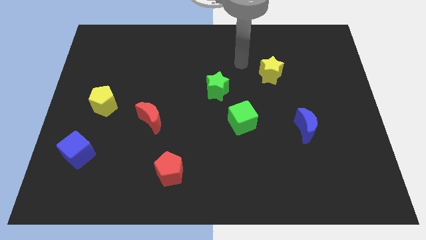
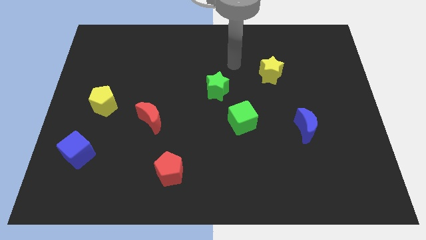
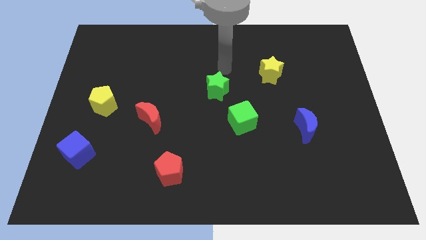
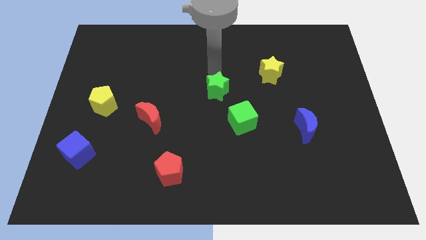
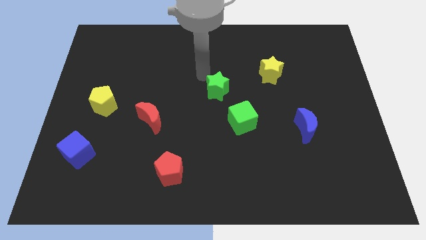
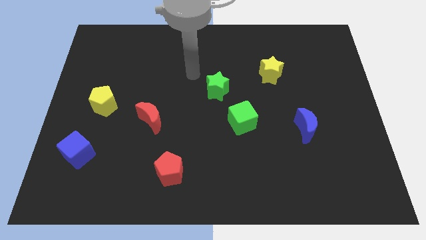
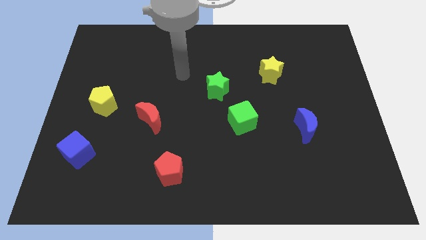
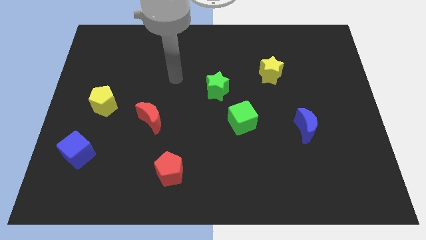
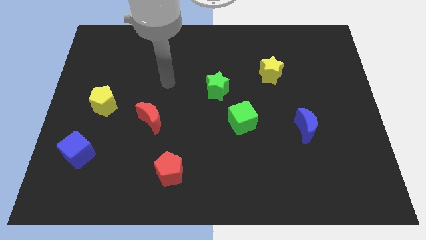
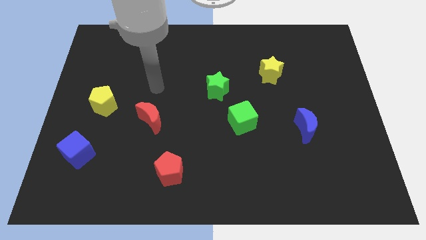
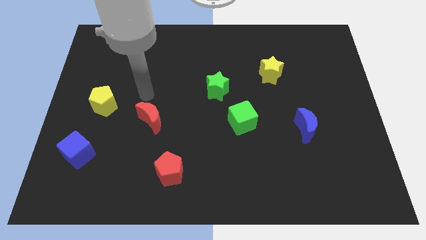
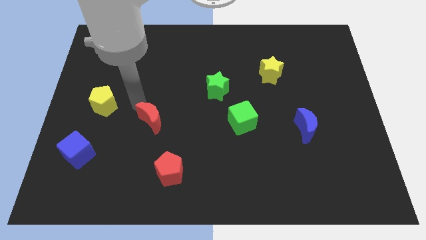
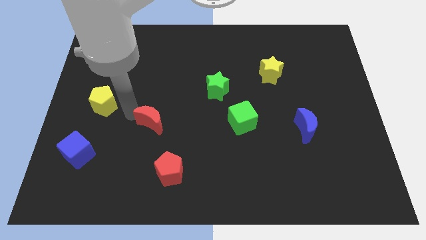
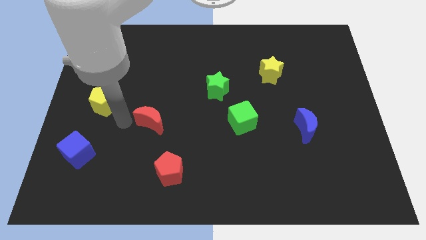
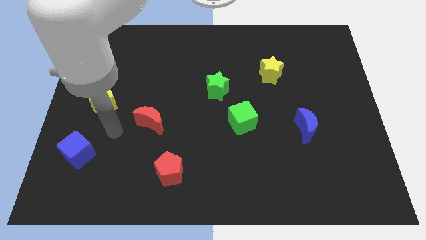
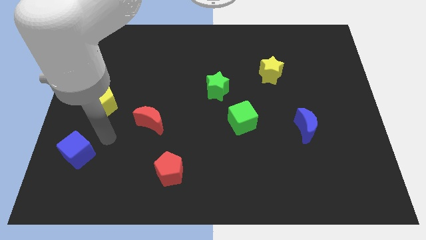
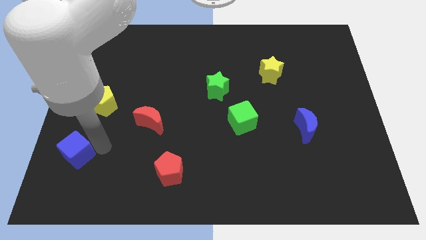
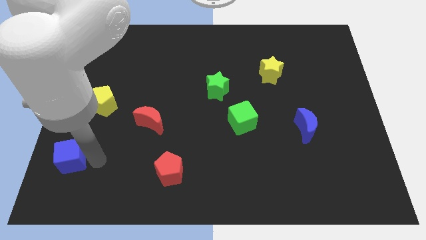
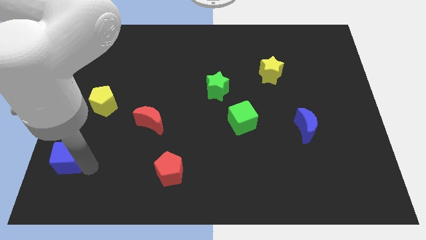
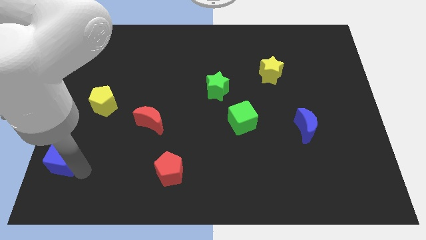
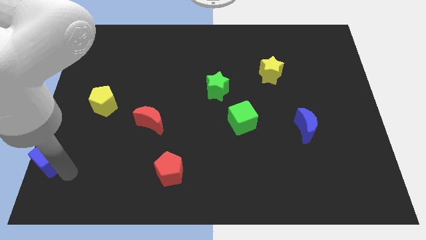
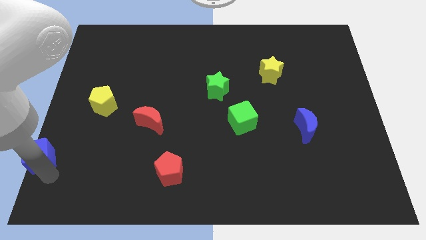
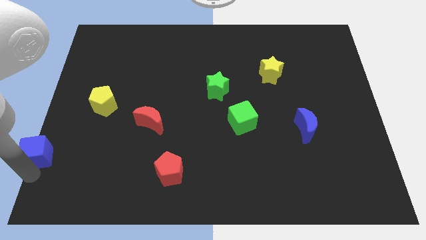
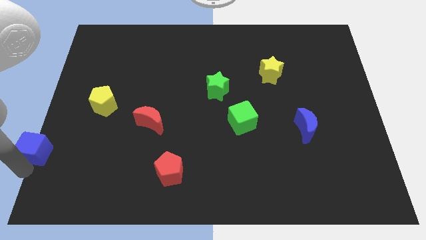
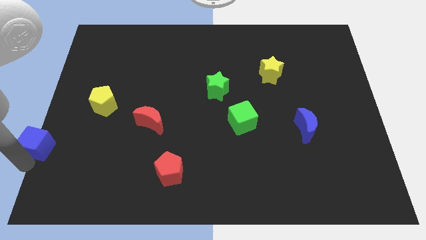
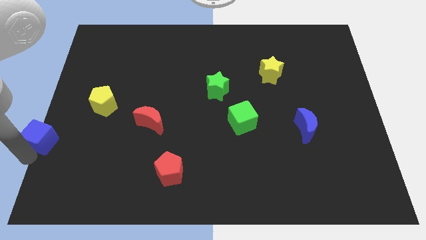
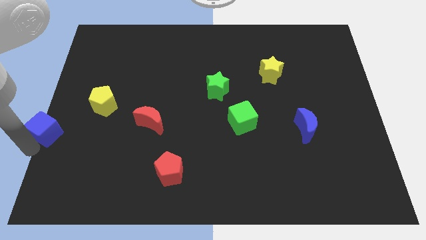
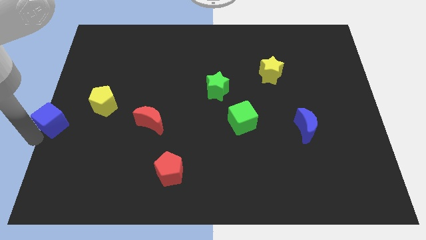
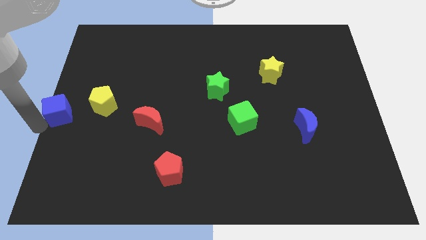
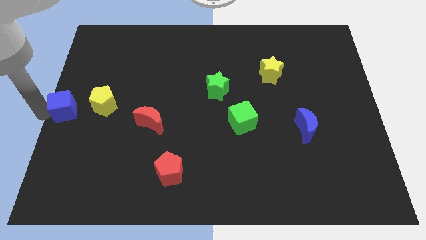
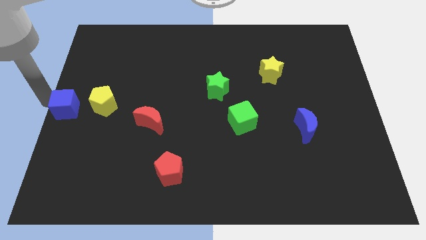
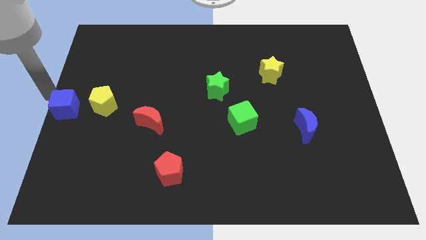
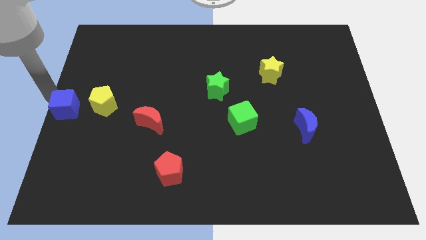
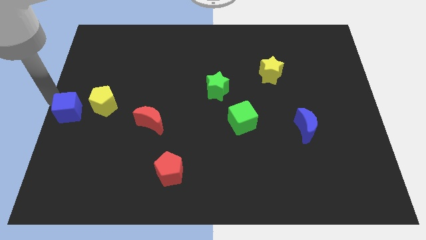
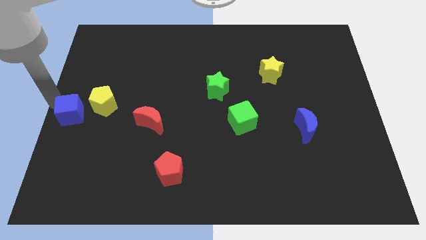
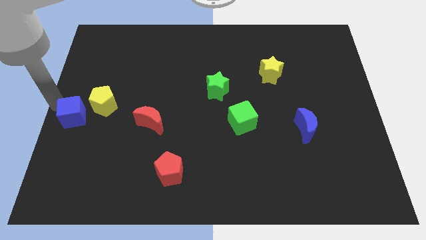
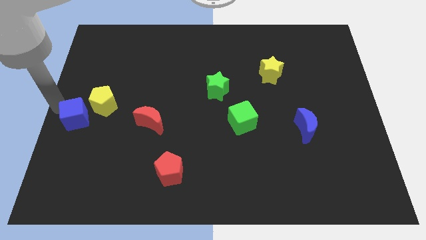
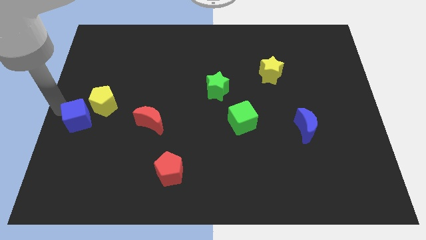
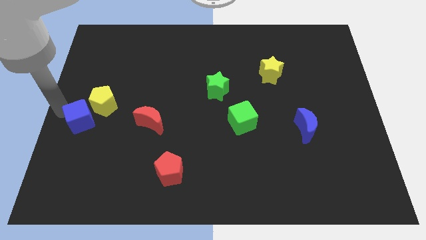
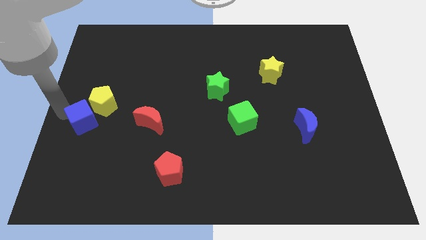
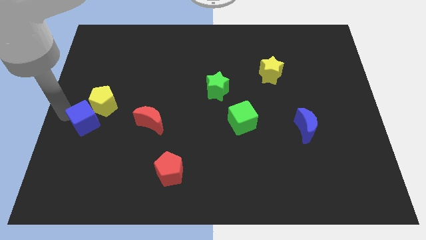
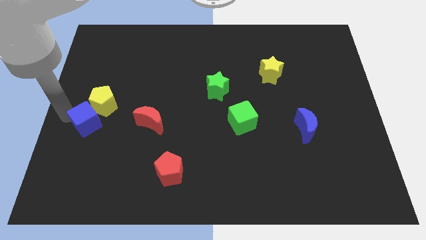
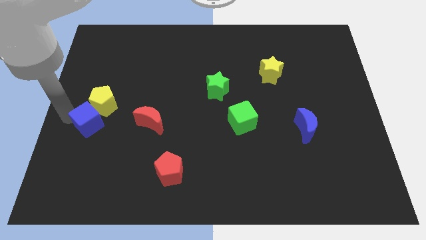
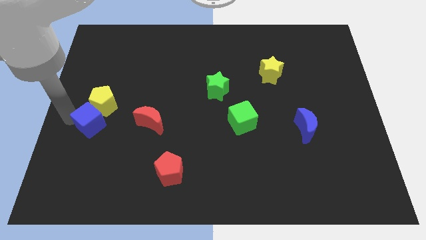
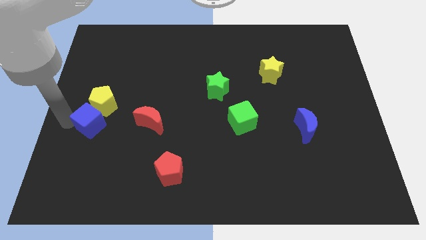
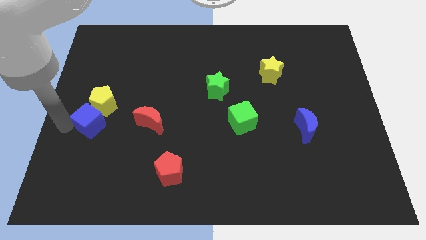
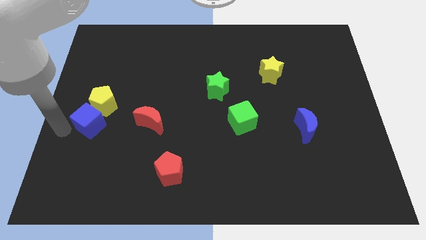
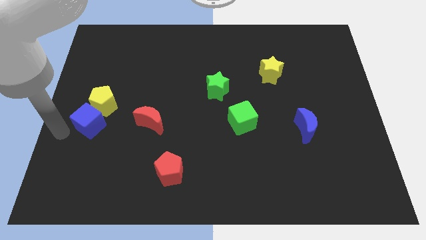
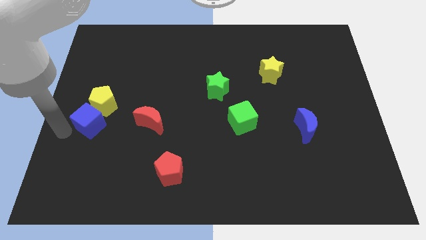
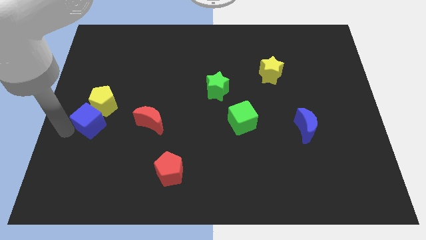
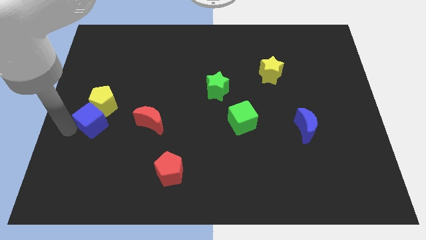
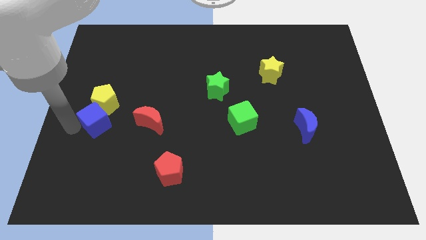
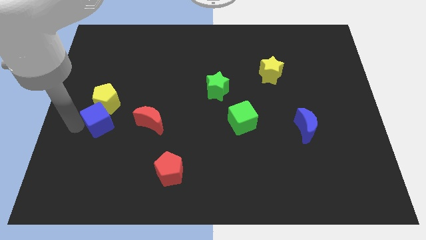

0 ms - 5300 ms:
slightly slide the blue cube up and then right

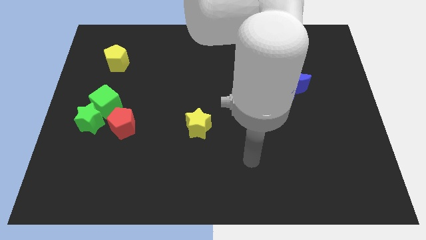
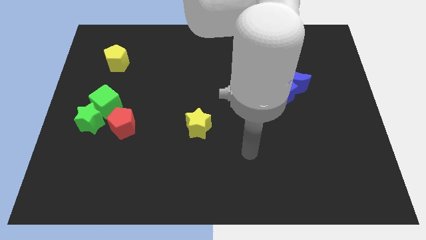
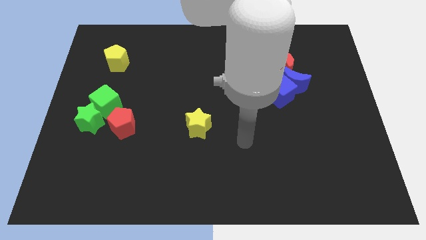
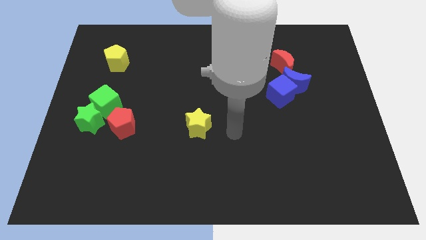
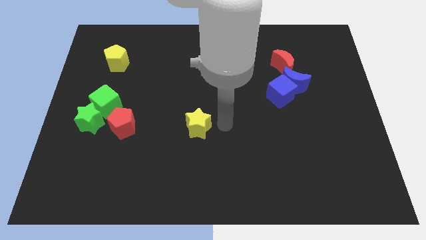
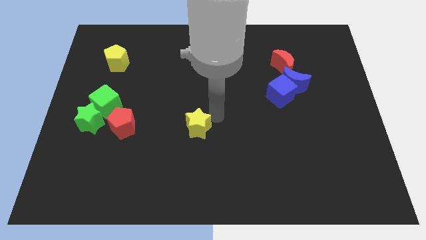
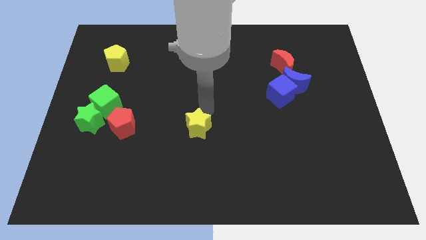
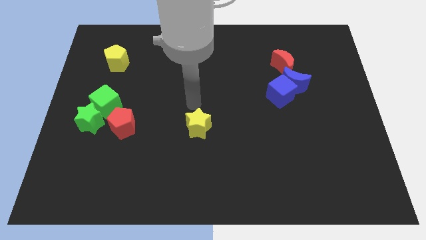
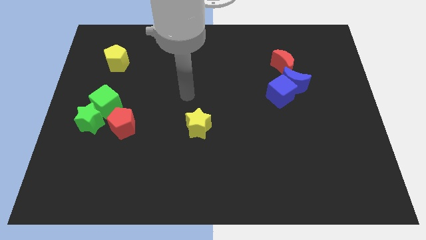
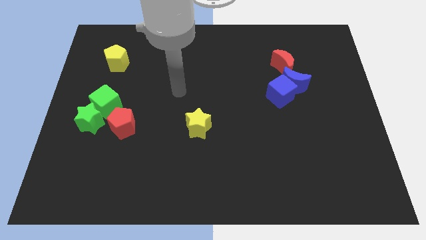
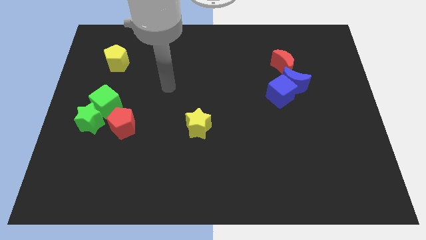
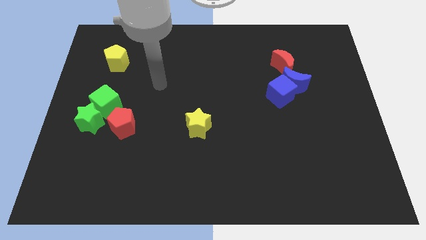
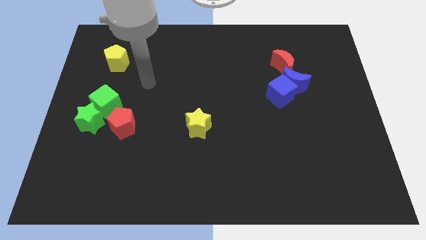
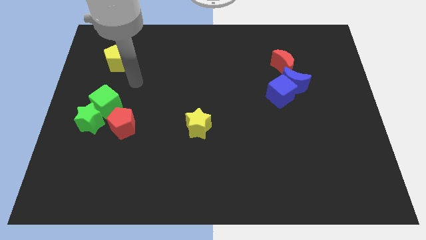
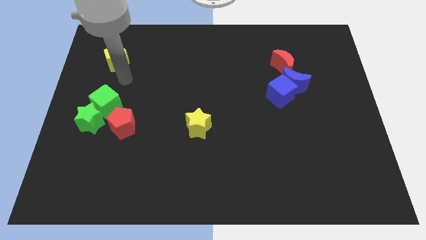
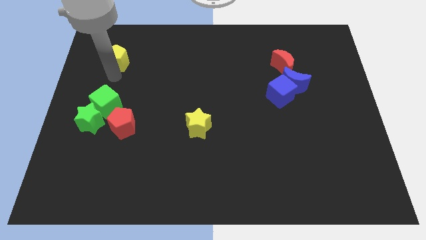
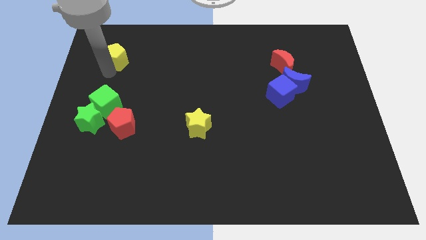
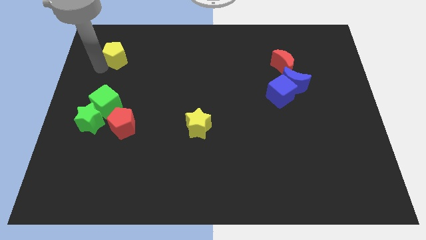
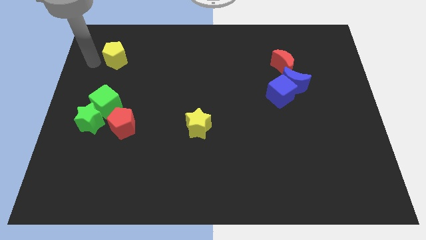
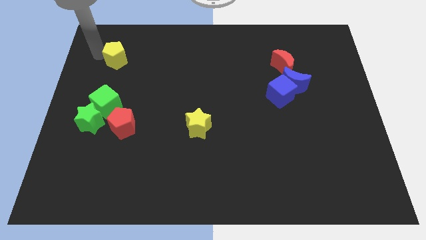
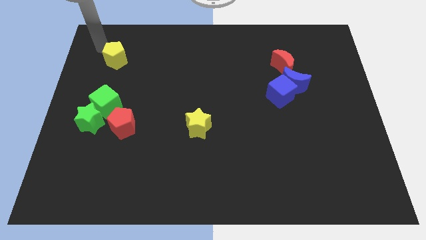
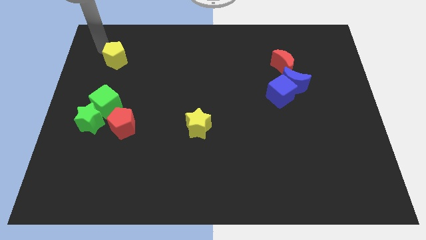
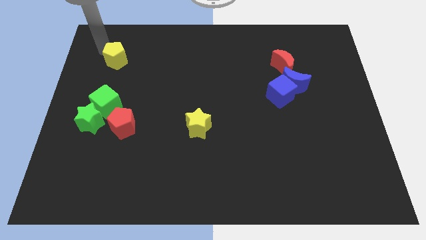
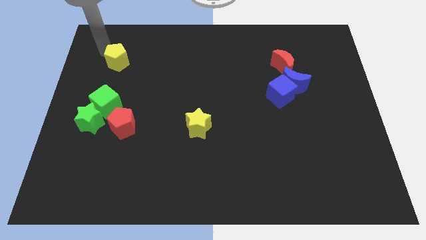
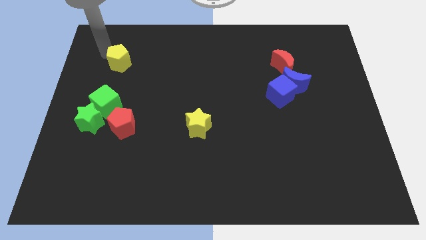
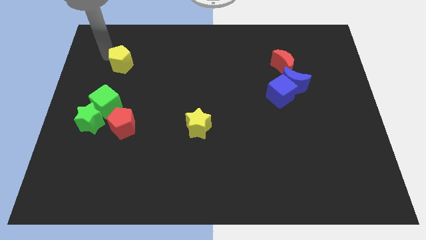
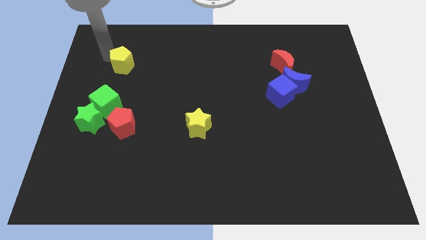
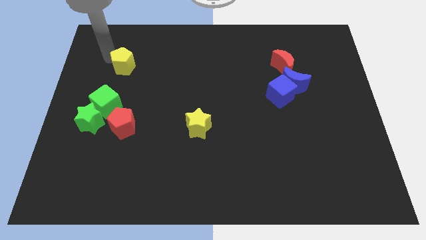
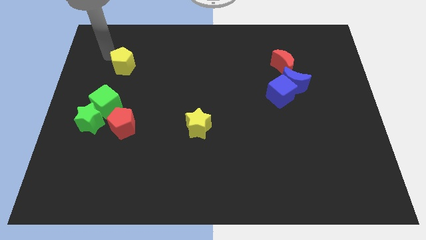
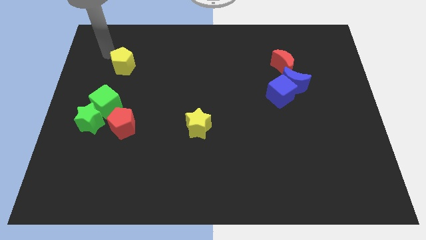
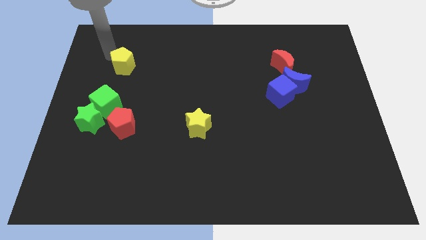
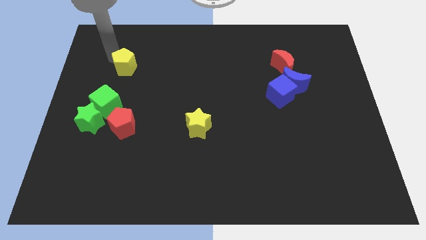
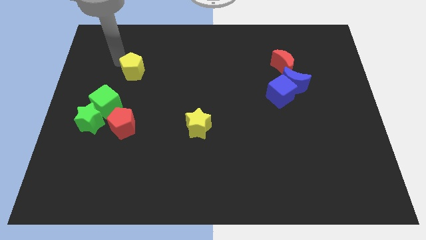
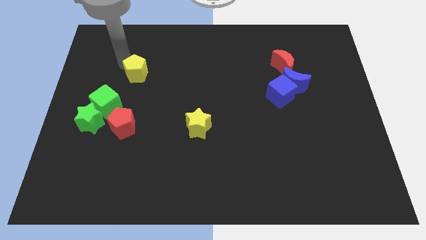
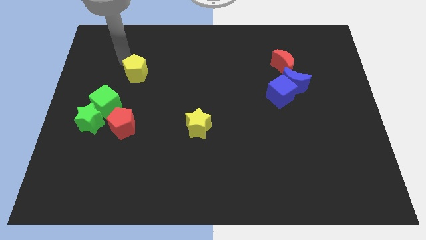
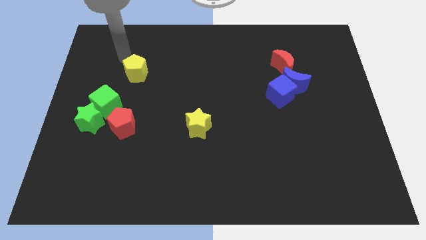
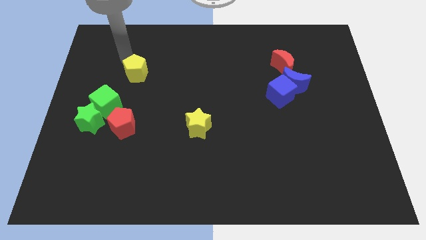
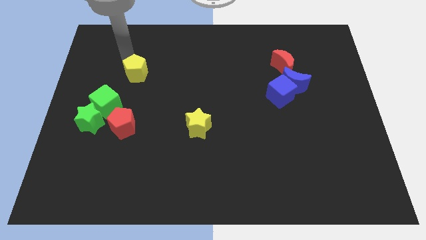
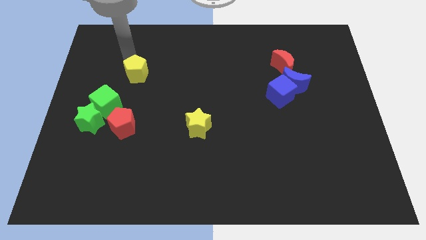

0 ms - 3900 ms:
push the yellow pentagon a little downwards and then to the right
